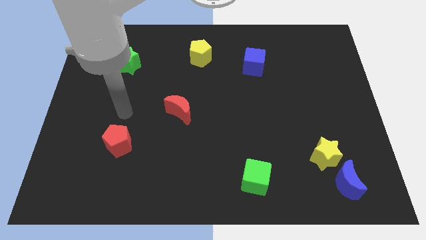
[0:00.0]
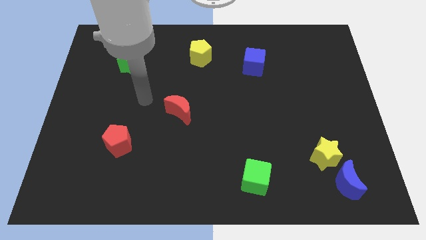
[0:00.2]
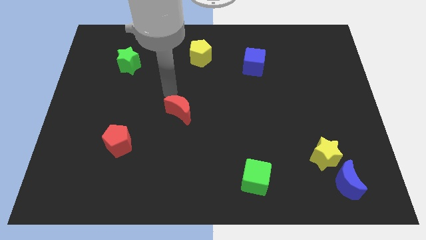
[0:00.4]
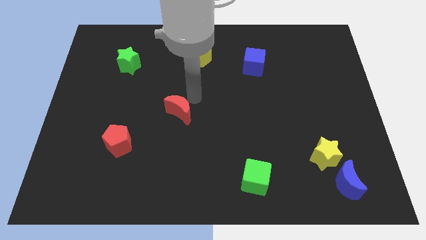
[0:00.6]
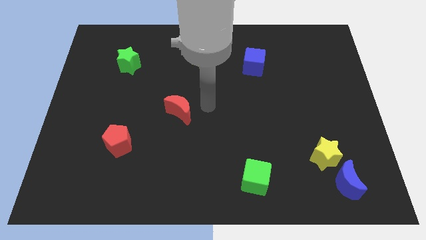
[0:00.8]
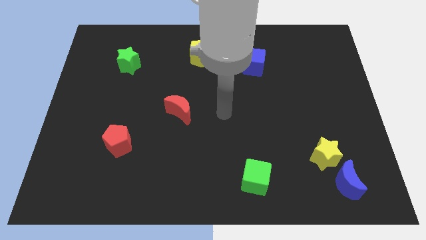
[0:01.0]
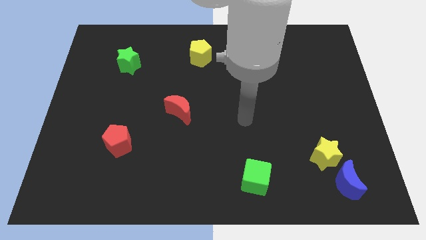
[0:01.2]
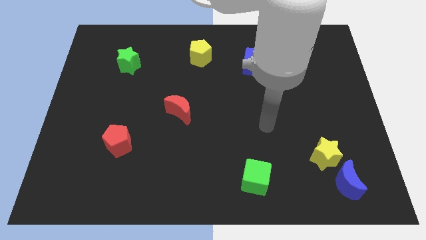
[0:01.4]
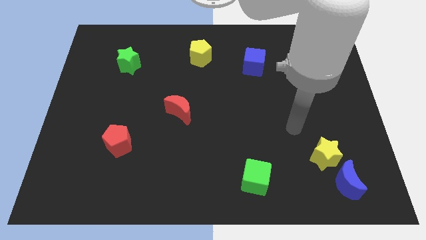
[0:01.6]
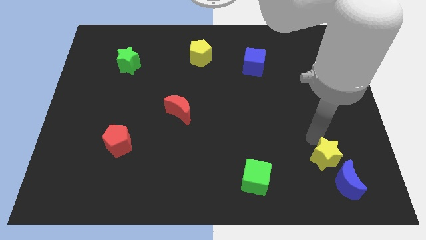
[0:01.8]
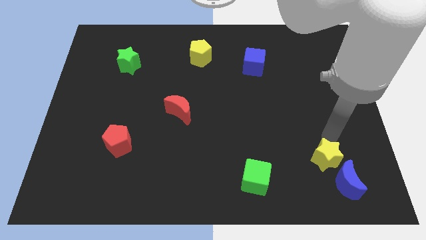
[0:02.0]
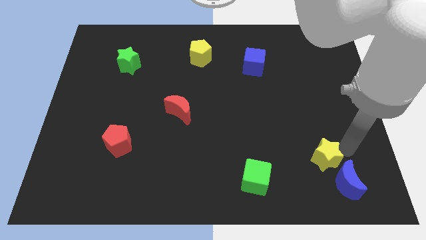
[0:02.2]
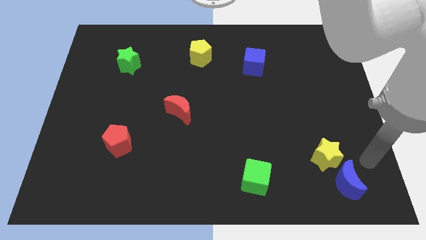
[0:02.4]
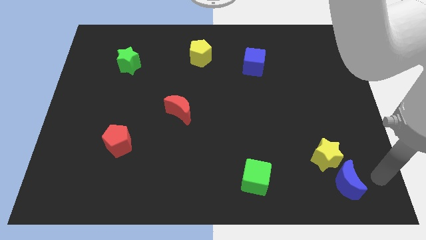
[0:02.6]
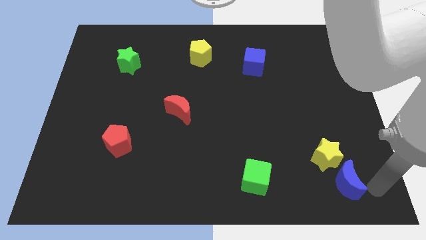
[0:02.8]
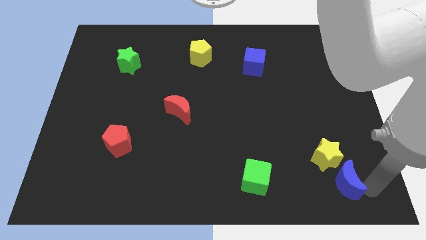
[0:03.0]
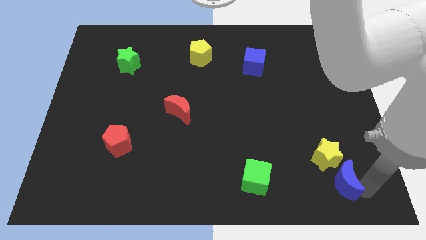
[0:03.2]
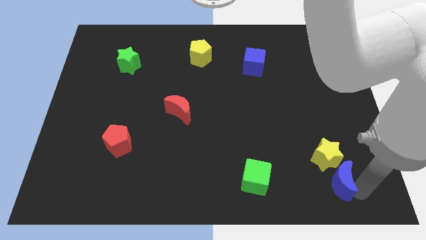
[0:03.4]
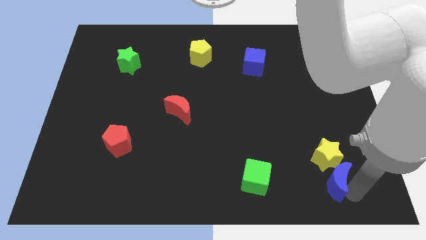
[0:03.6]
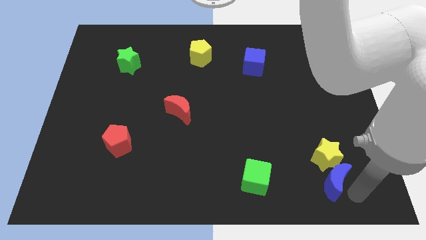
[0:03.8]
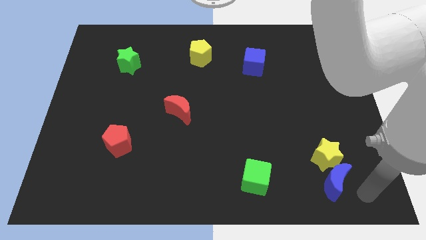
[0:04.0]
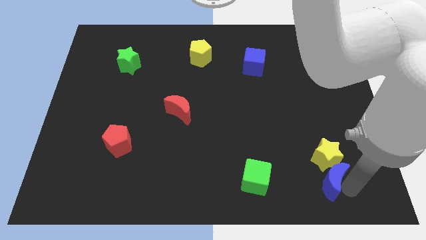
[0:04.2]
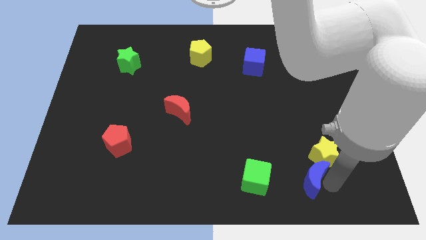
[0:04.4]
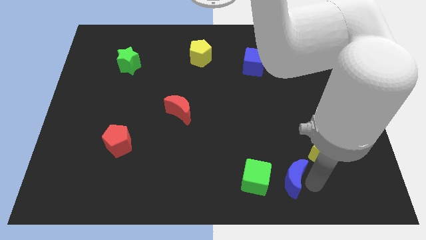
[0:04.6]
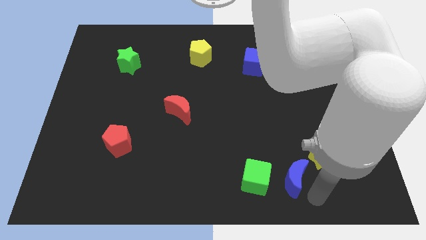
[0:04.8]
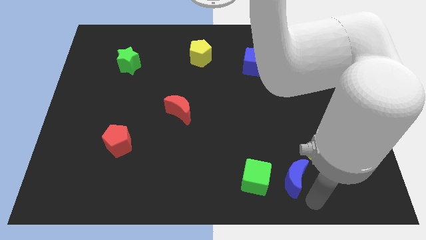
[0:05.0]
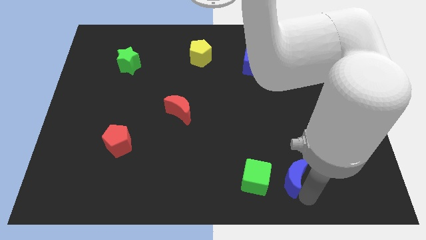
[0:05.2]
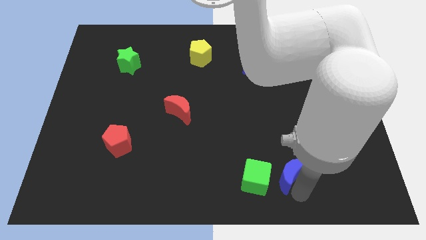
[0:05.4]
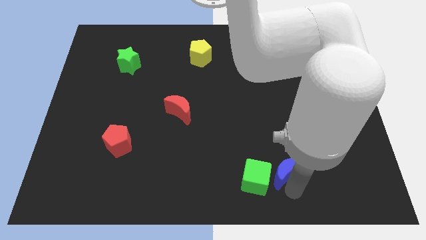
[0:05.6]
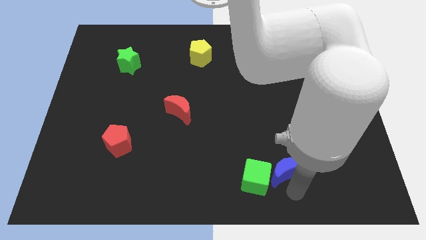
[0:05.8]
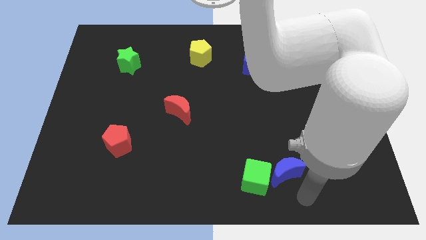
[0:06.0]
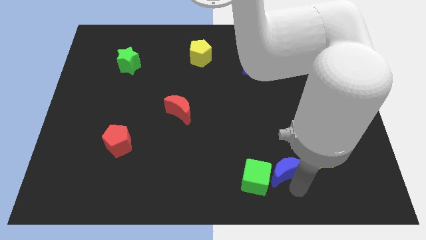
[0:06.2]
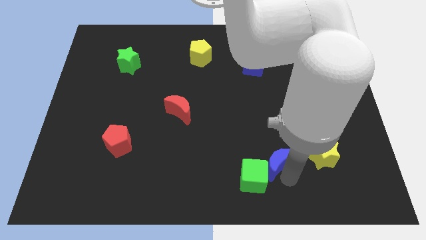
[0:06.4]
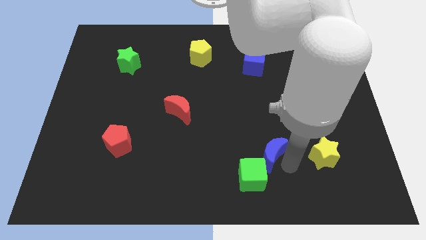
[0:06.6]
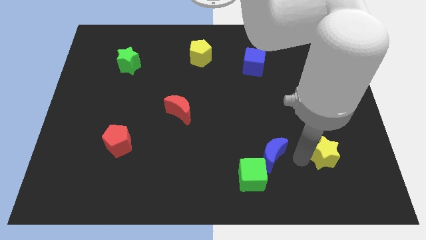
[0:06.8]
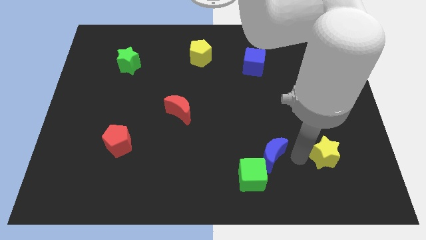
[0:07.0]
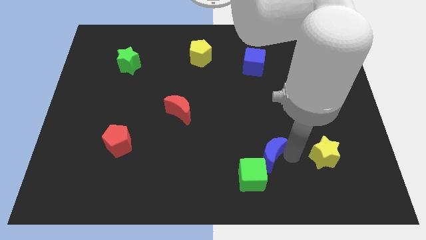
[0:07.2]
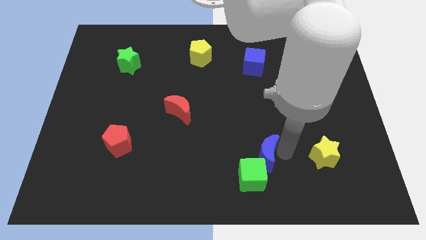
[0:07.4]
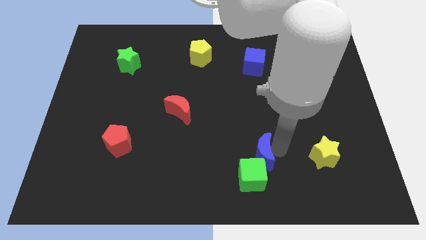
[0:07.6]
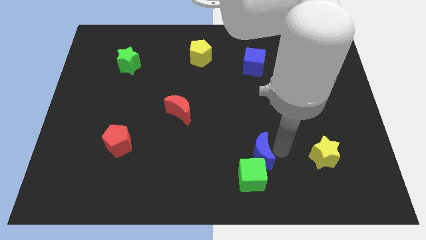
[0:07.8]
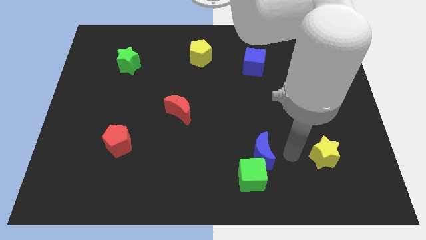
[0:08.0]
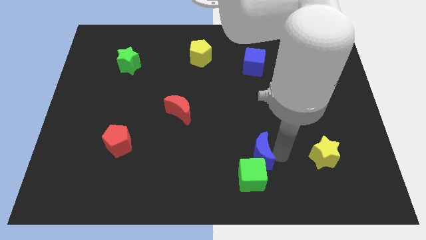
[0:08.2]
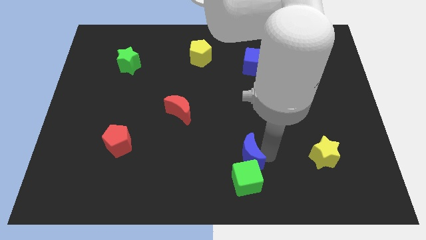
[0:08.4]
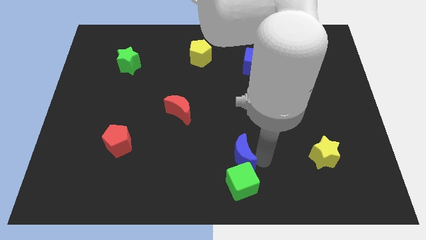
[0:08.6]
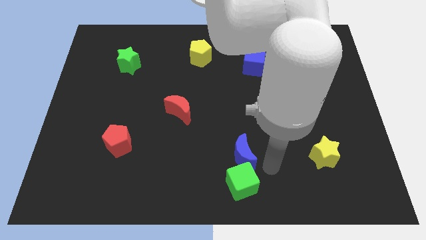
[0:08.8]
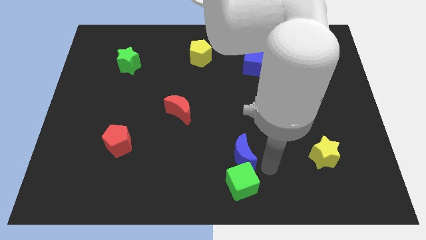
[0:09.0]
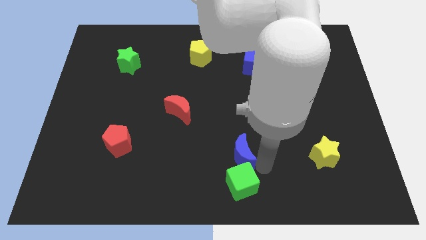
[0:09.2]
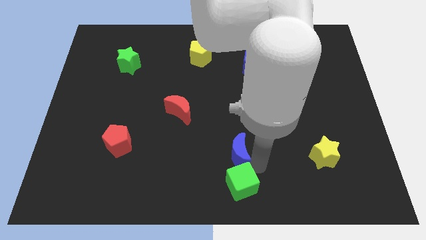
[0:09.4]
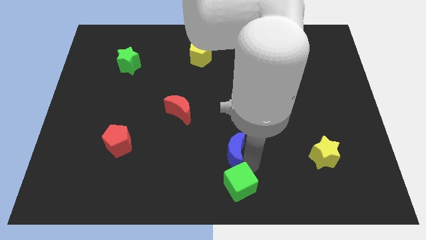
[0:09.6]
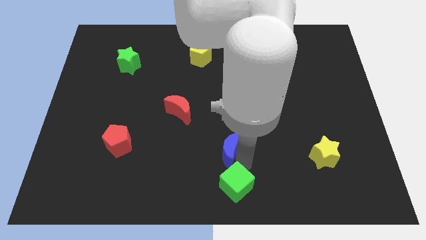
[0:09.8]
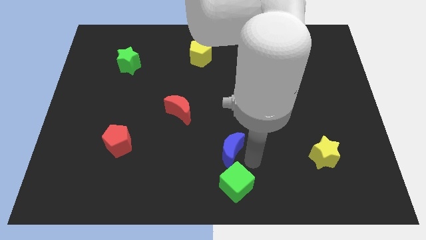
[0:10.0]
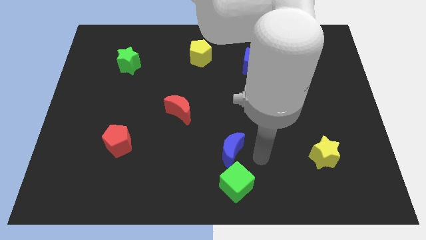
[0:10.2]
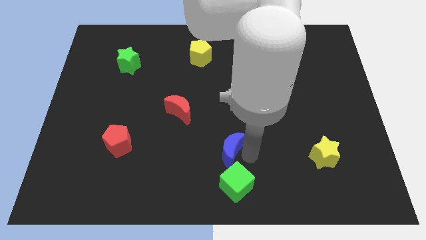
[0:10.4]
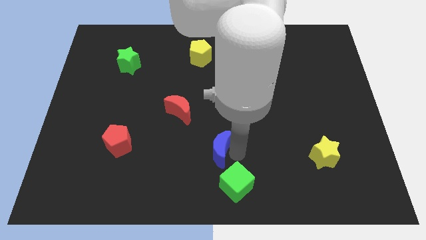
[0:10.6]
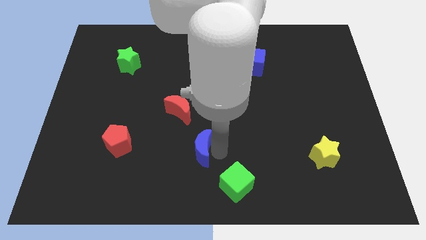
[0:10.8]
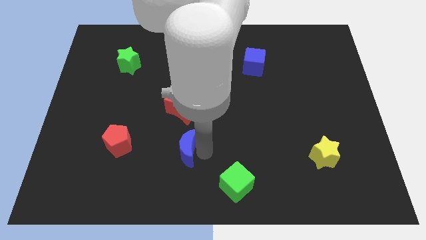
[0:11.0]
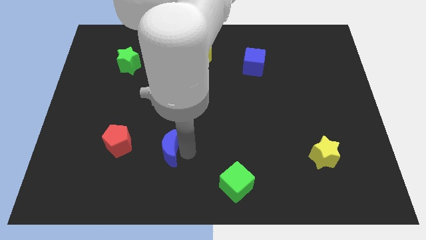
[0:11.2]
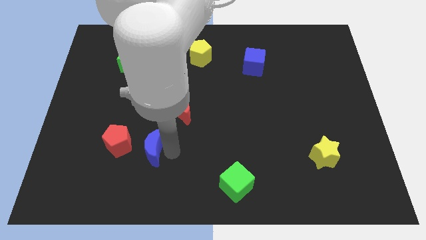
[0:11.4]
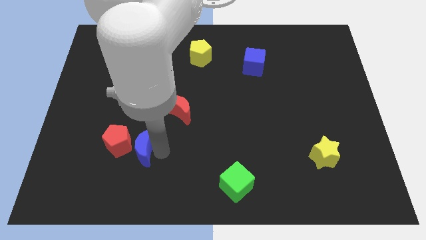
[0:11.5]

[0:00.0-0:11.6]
slide the blue moon towards the red pentagon

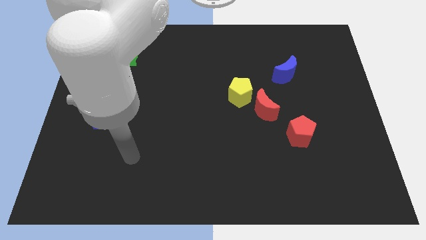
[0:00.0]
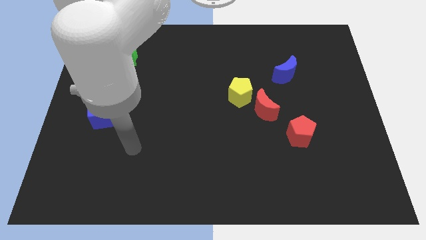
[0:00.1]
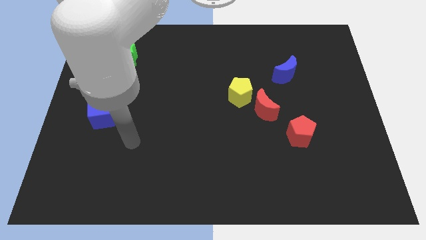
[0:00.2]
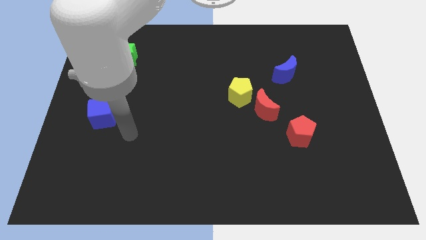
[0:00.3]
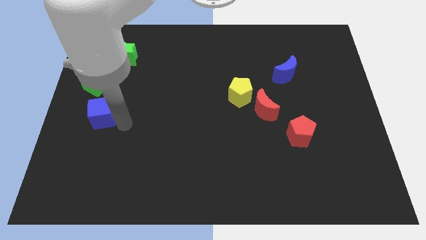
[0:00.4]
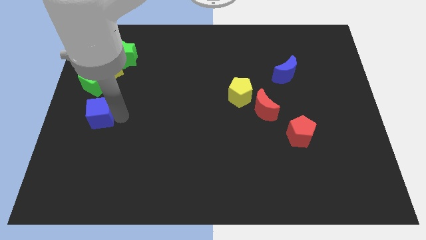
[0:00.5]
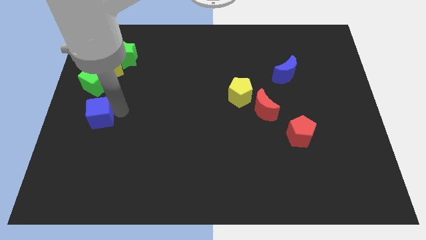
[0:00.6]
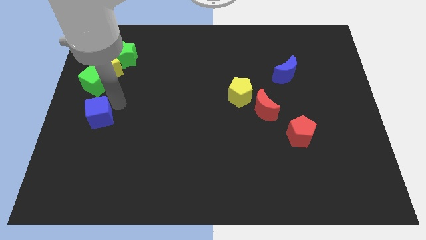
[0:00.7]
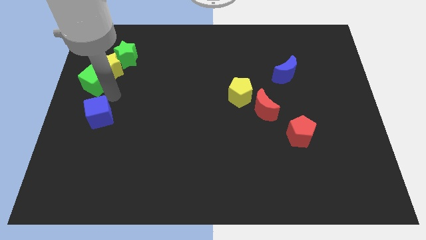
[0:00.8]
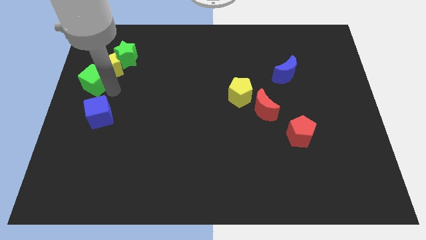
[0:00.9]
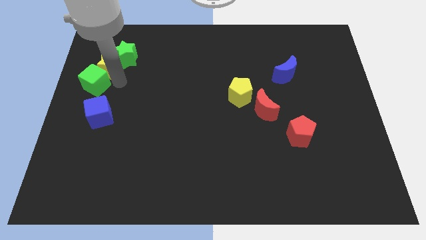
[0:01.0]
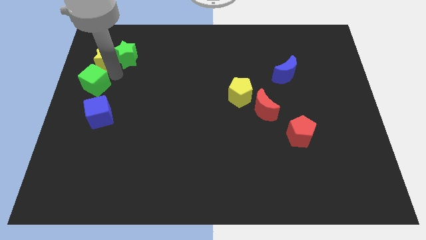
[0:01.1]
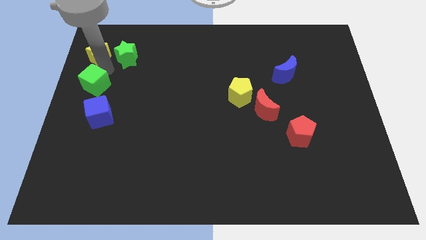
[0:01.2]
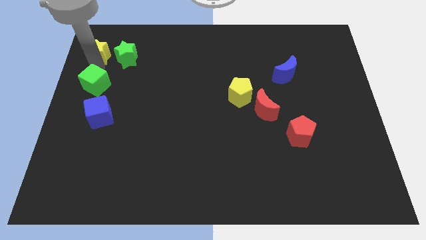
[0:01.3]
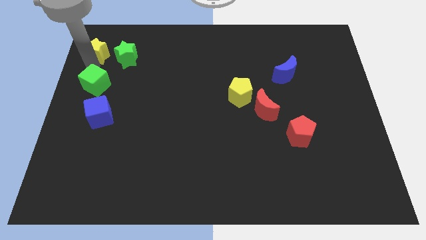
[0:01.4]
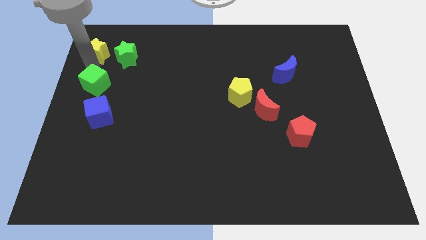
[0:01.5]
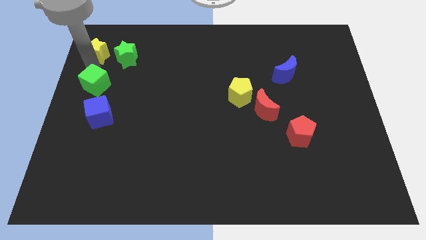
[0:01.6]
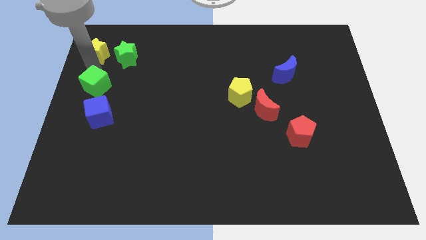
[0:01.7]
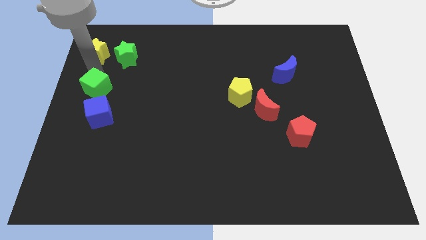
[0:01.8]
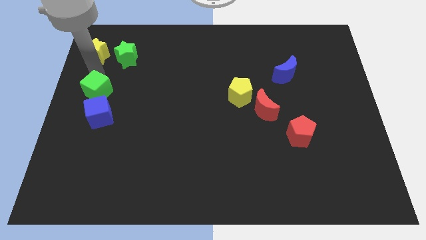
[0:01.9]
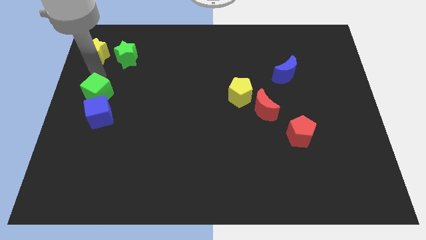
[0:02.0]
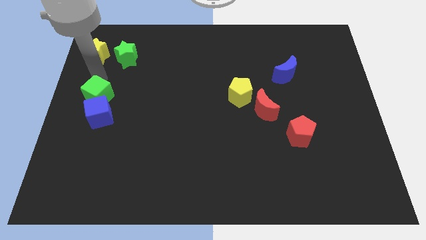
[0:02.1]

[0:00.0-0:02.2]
put the green cube towards the blue cube
